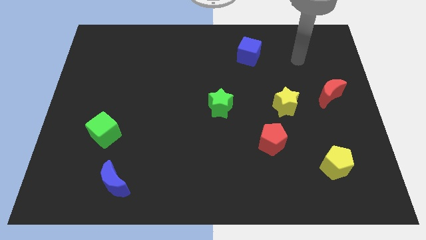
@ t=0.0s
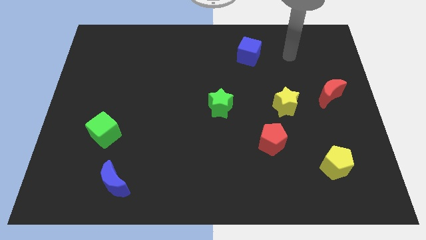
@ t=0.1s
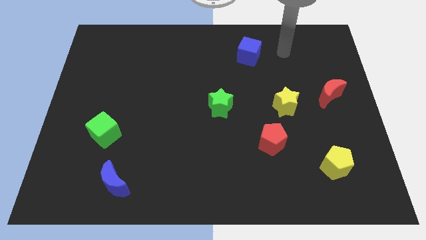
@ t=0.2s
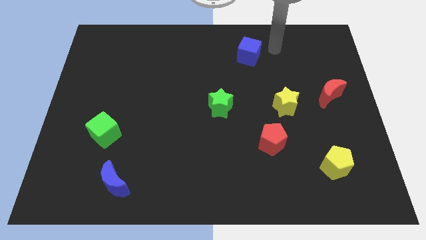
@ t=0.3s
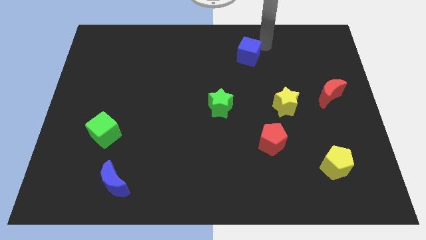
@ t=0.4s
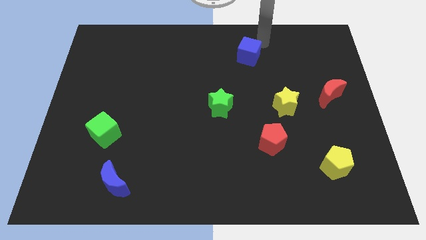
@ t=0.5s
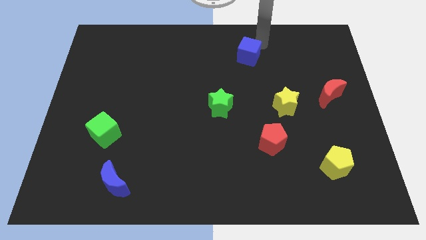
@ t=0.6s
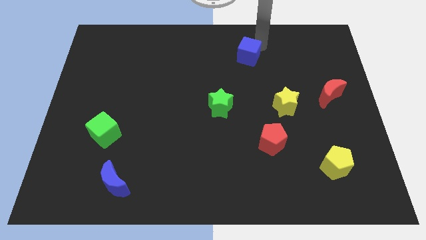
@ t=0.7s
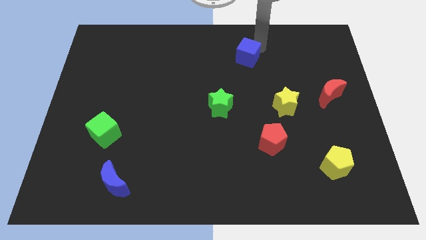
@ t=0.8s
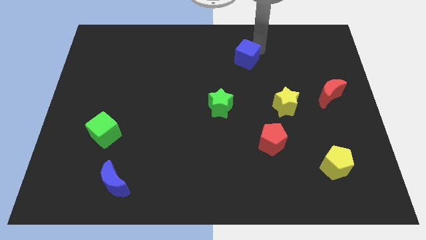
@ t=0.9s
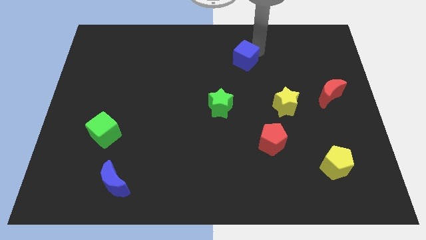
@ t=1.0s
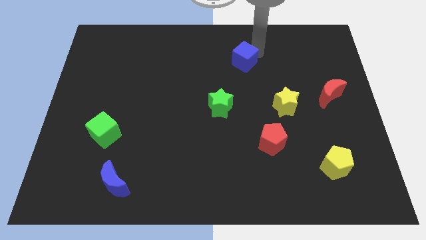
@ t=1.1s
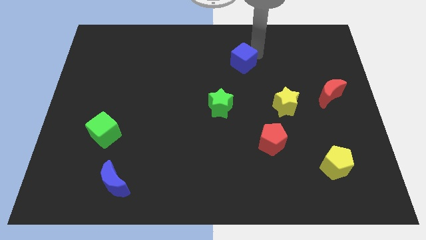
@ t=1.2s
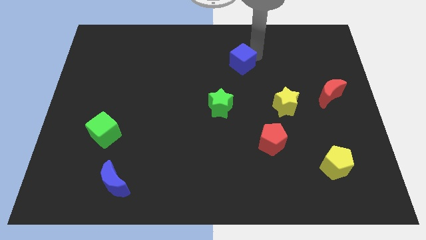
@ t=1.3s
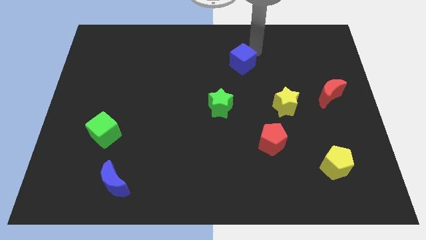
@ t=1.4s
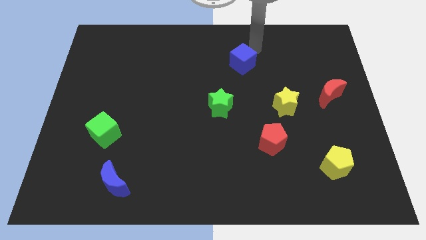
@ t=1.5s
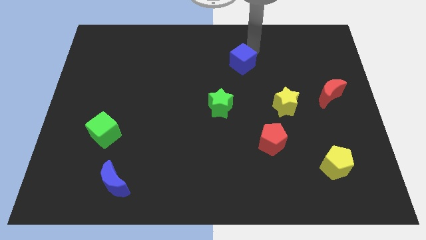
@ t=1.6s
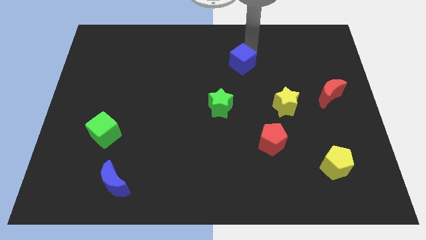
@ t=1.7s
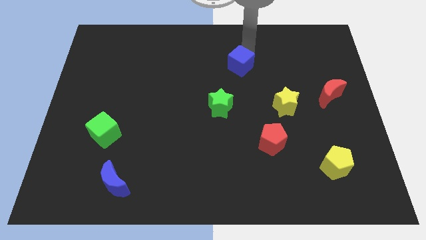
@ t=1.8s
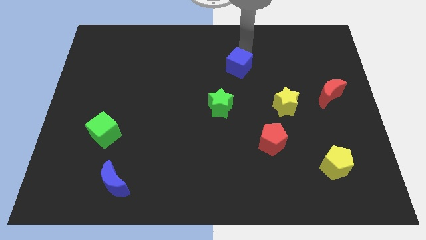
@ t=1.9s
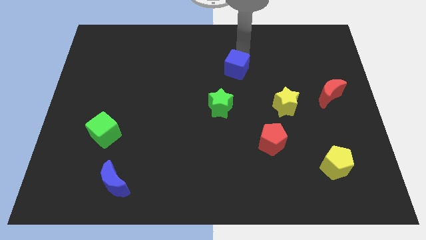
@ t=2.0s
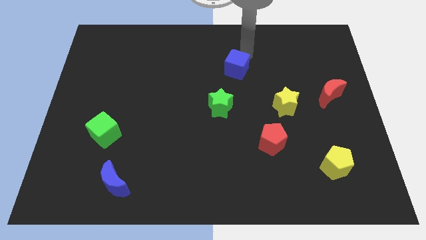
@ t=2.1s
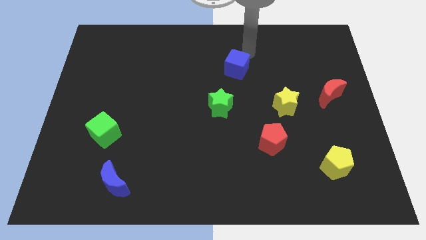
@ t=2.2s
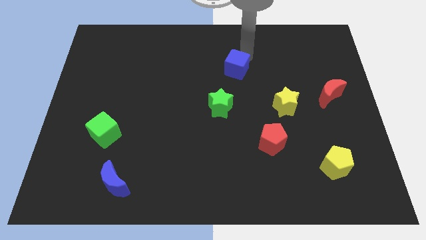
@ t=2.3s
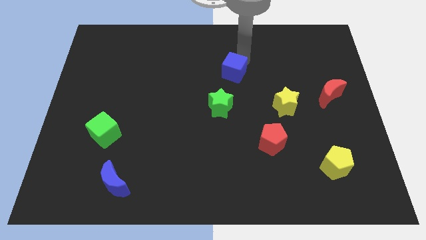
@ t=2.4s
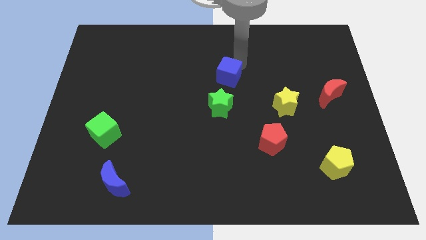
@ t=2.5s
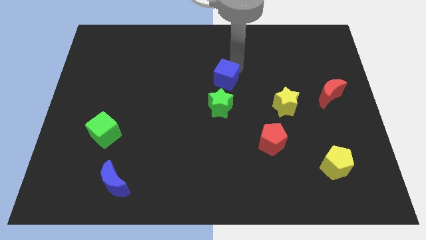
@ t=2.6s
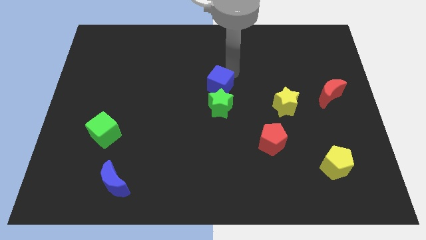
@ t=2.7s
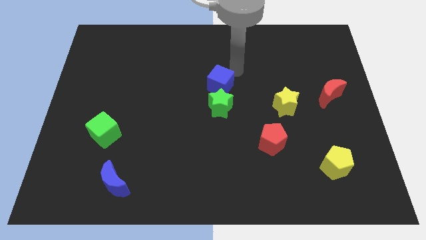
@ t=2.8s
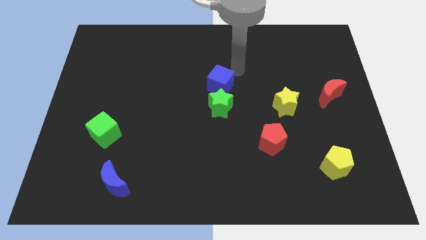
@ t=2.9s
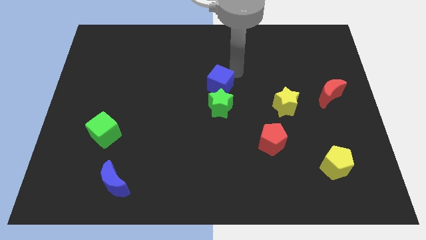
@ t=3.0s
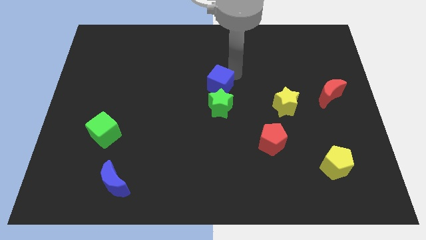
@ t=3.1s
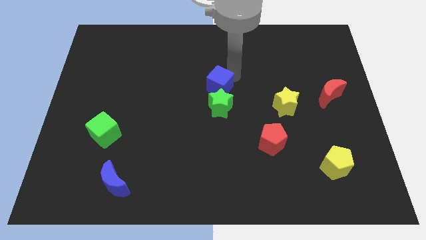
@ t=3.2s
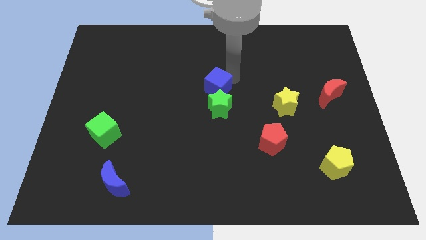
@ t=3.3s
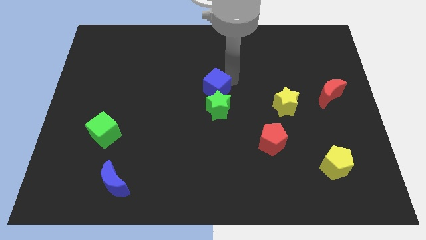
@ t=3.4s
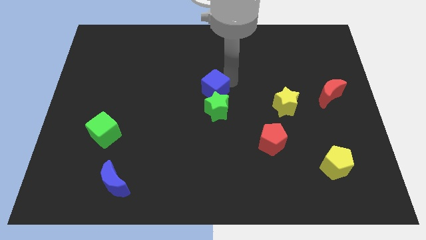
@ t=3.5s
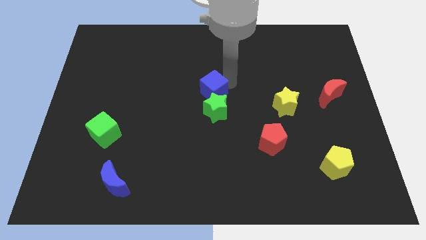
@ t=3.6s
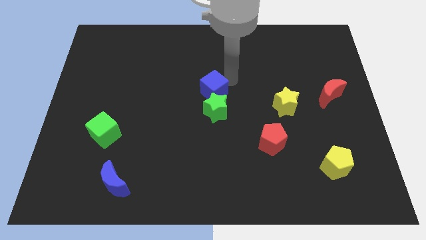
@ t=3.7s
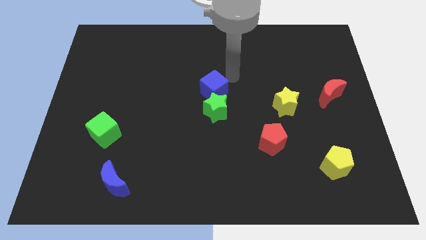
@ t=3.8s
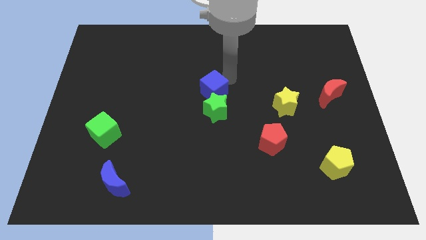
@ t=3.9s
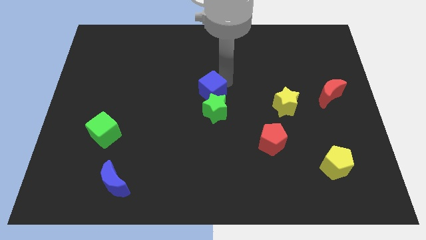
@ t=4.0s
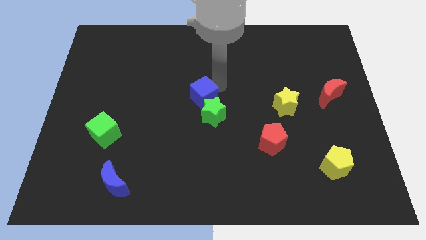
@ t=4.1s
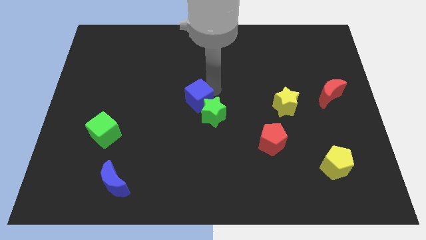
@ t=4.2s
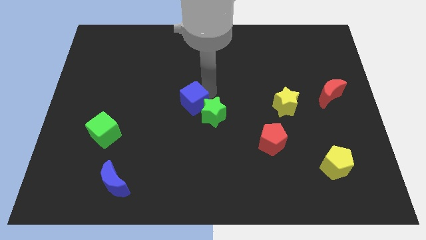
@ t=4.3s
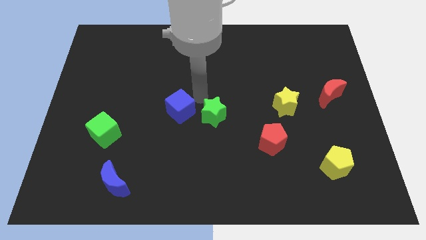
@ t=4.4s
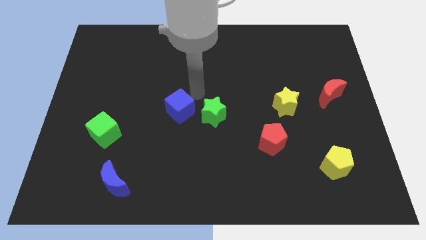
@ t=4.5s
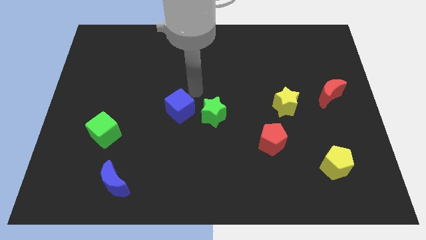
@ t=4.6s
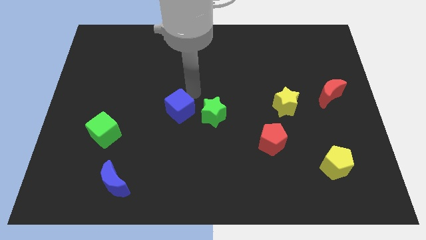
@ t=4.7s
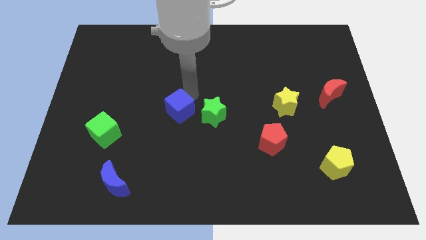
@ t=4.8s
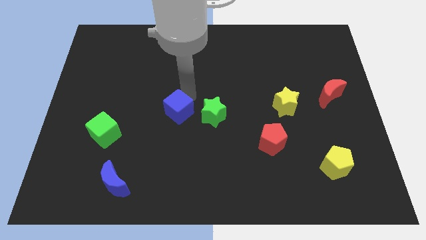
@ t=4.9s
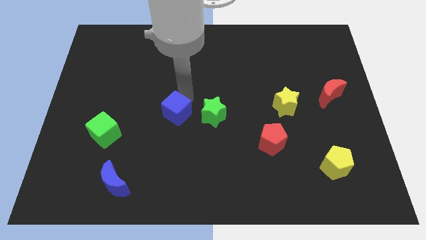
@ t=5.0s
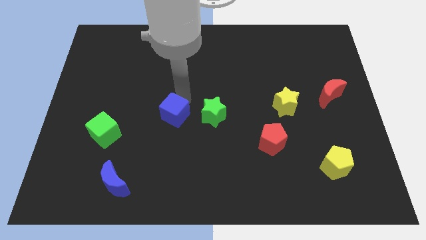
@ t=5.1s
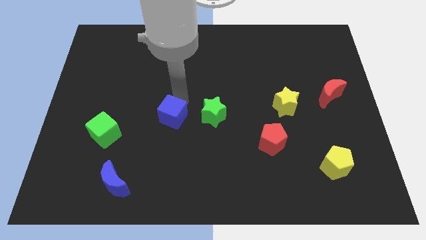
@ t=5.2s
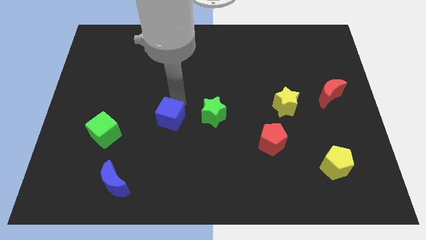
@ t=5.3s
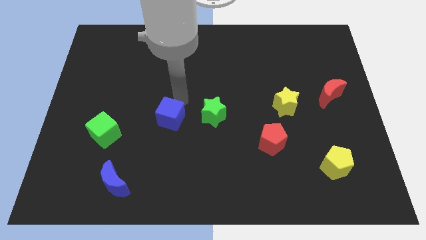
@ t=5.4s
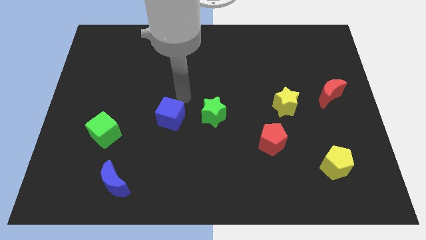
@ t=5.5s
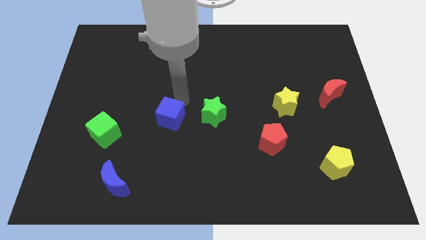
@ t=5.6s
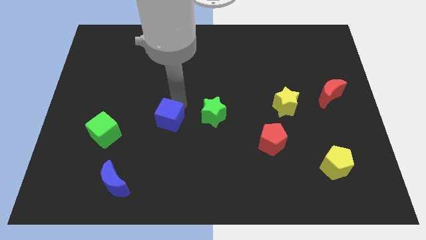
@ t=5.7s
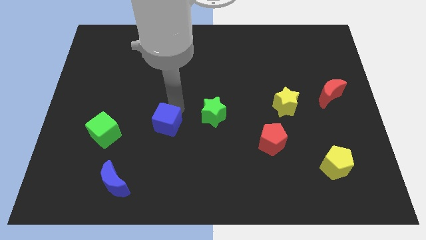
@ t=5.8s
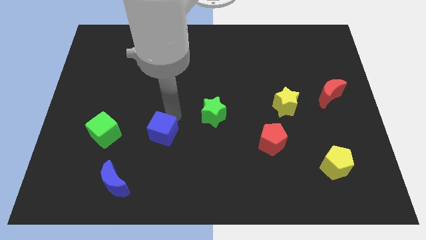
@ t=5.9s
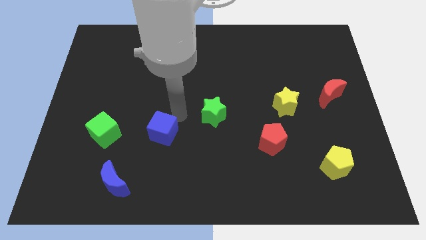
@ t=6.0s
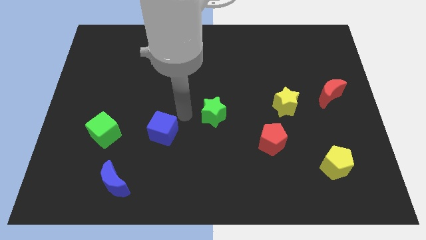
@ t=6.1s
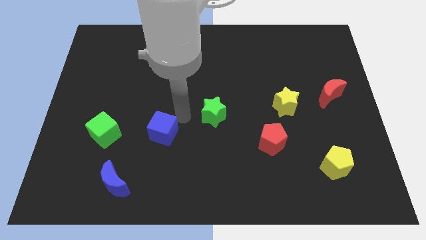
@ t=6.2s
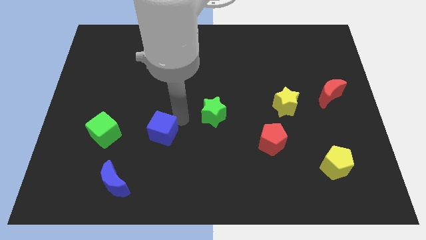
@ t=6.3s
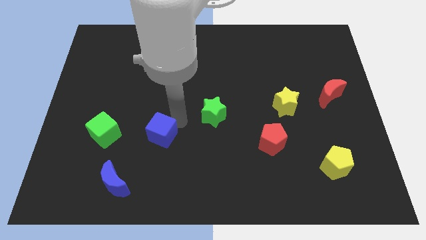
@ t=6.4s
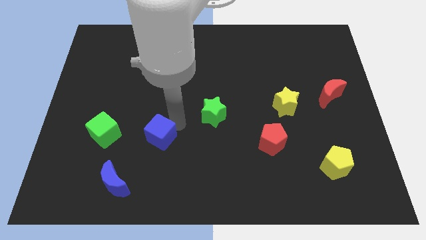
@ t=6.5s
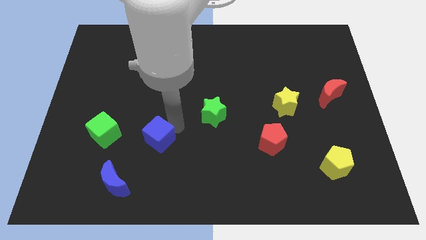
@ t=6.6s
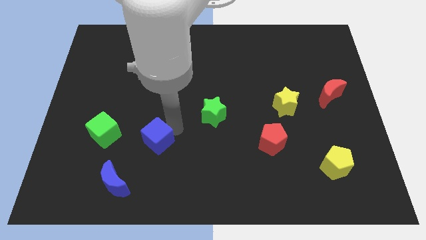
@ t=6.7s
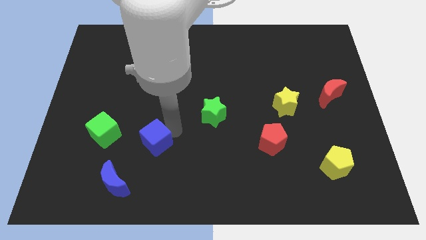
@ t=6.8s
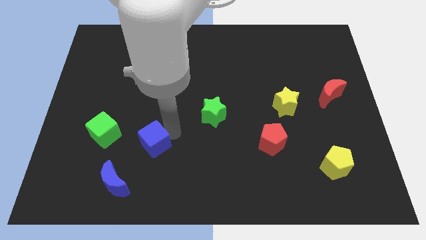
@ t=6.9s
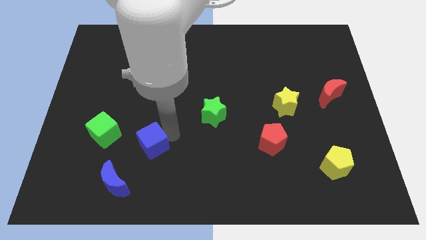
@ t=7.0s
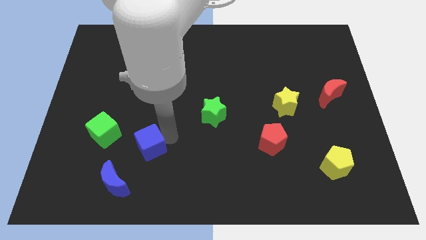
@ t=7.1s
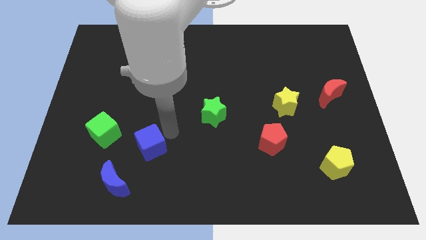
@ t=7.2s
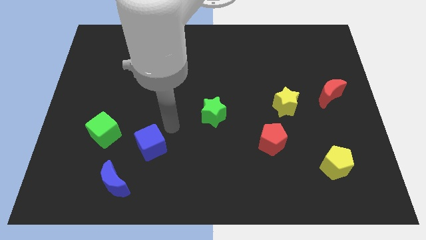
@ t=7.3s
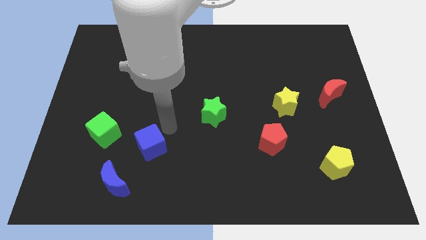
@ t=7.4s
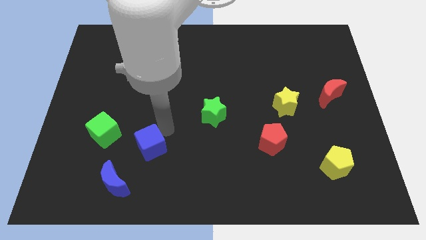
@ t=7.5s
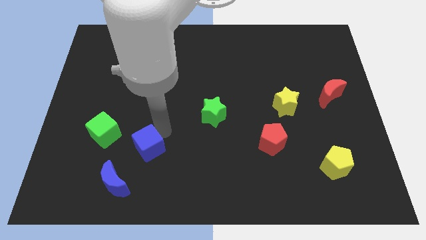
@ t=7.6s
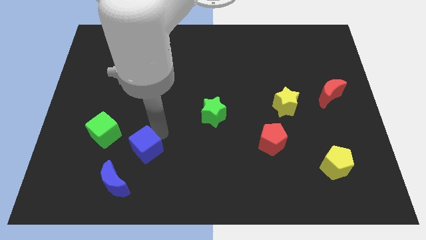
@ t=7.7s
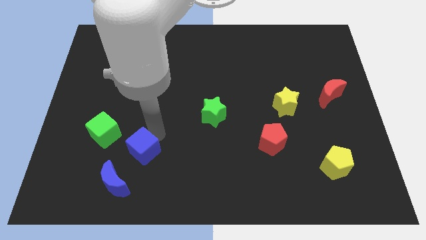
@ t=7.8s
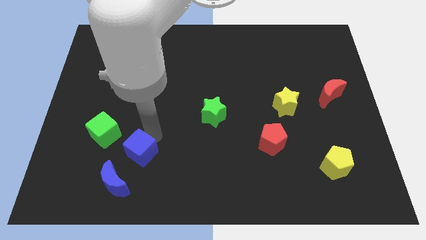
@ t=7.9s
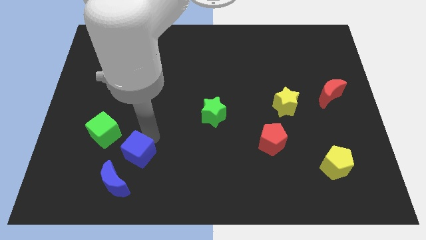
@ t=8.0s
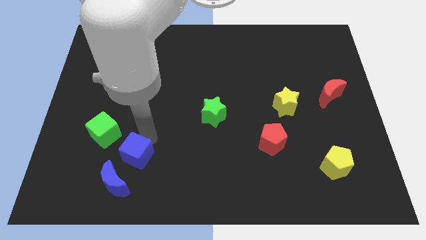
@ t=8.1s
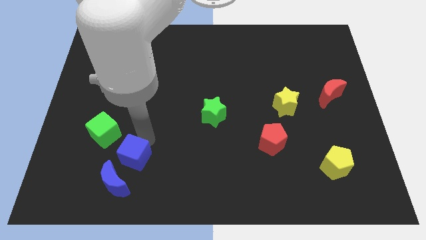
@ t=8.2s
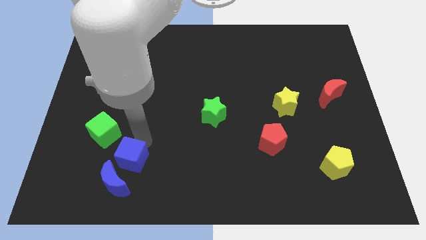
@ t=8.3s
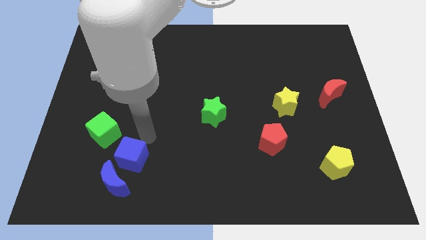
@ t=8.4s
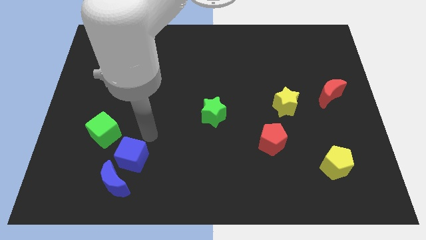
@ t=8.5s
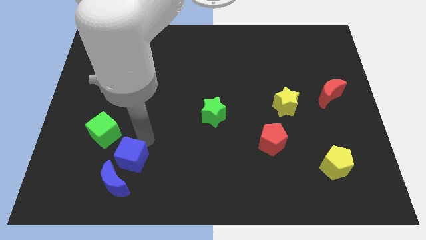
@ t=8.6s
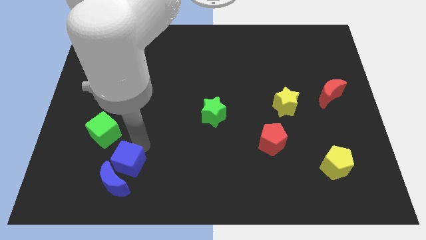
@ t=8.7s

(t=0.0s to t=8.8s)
push the blue cube towards the blue moon
